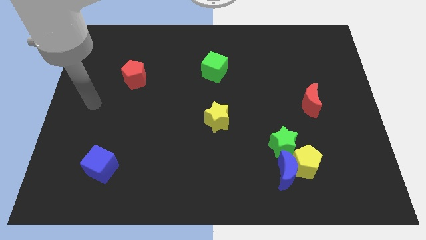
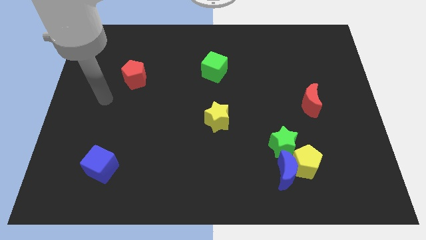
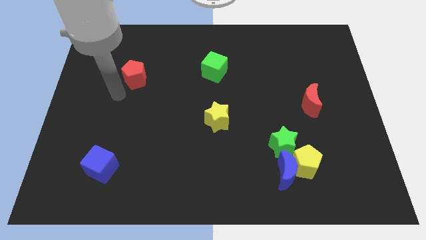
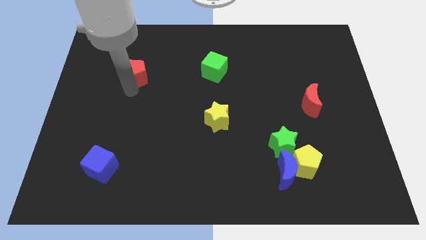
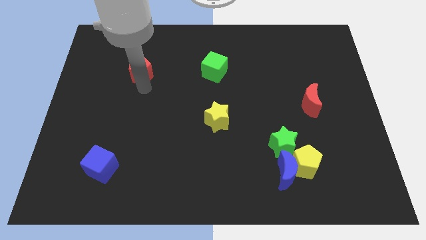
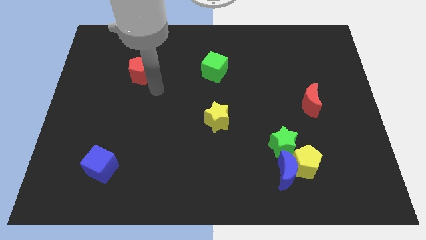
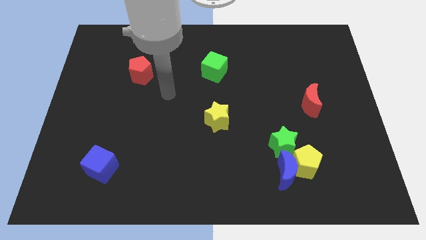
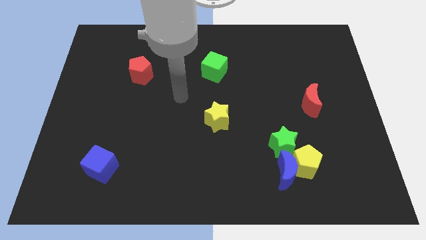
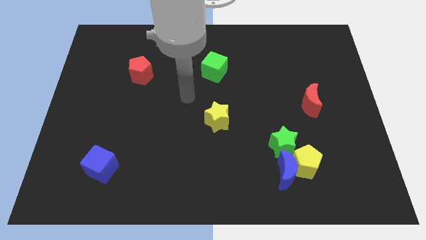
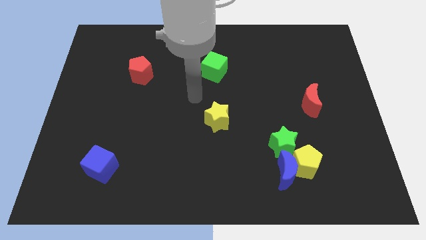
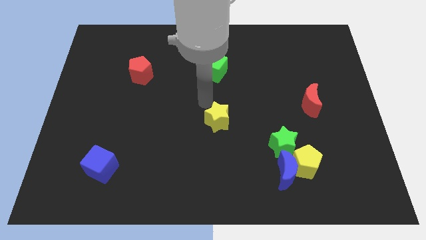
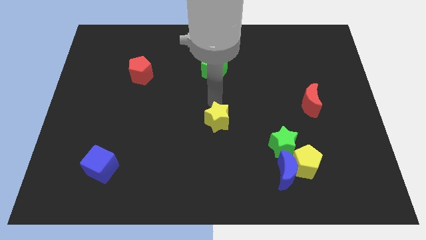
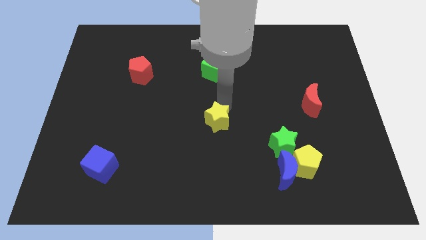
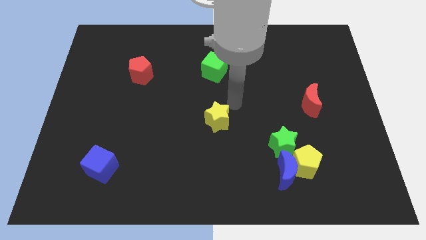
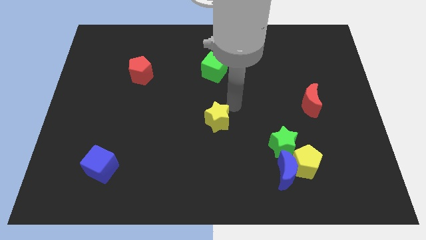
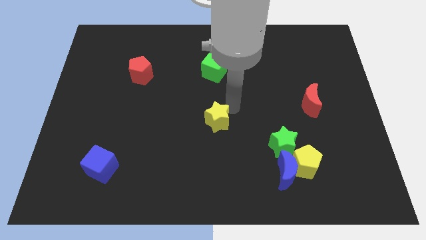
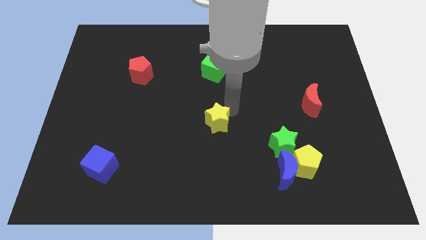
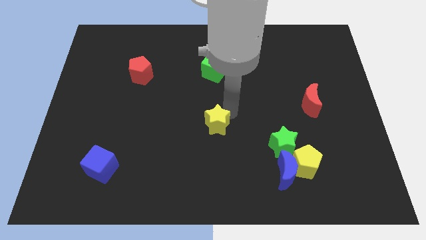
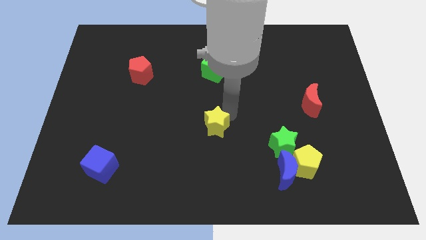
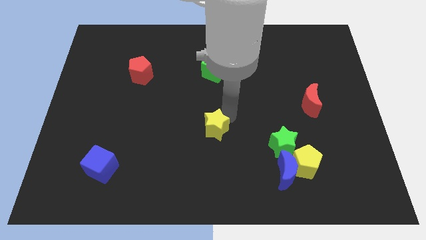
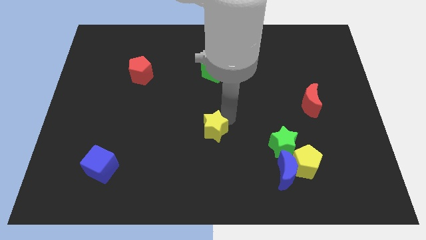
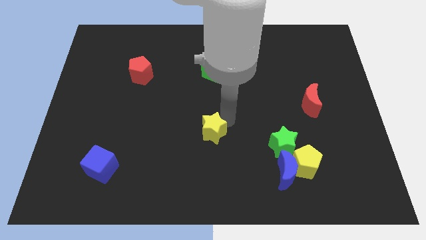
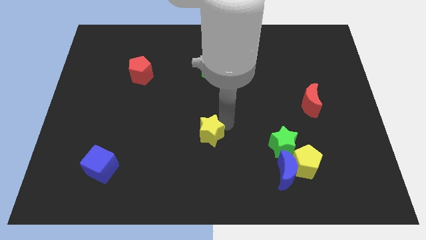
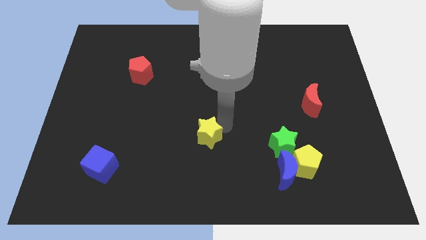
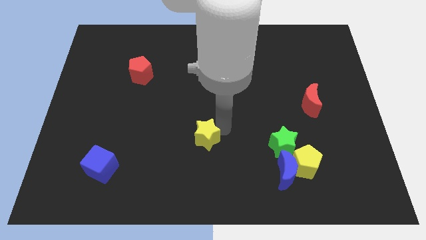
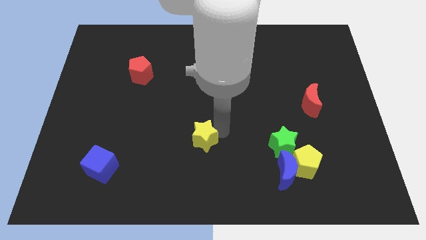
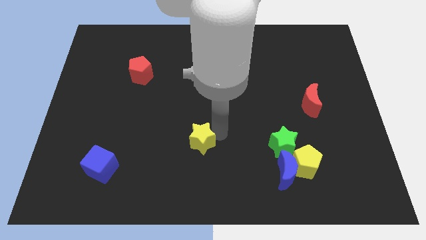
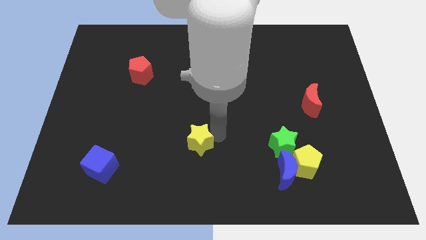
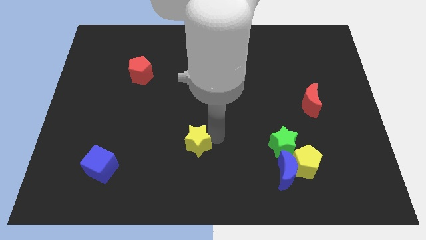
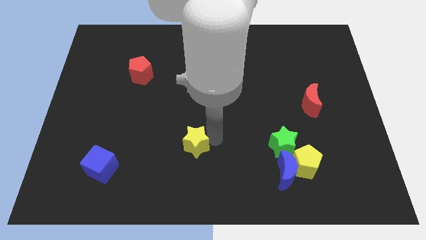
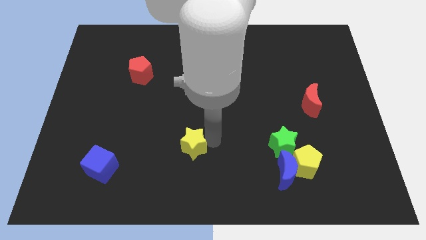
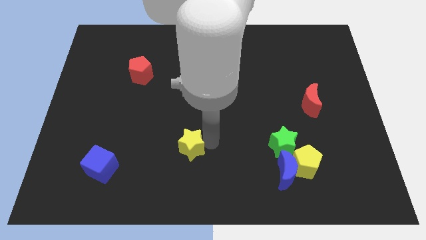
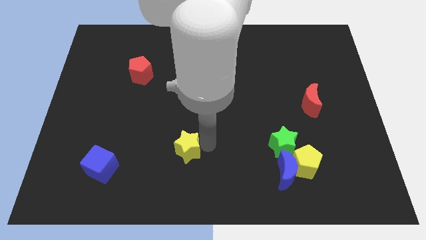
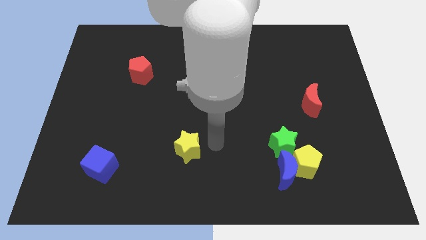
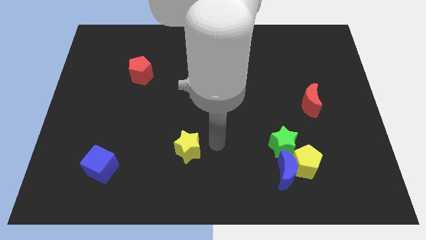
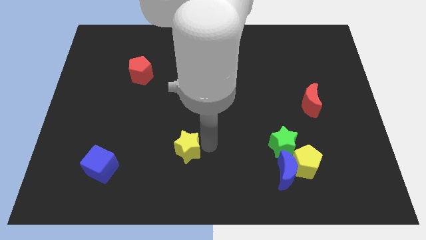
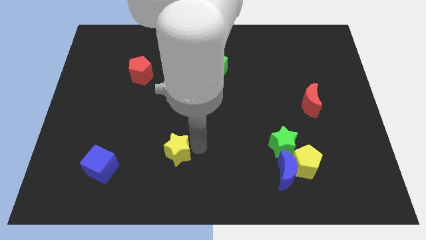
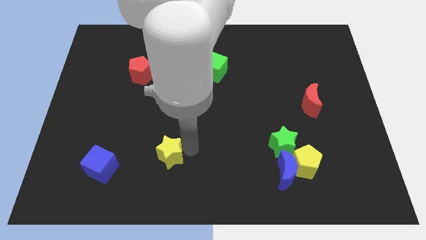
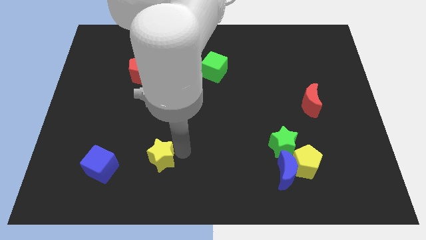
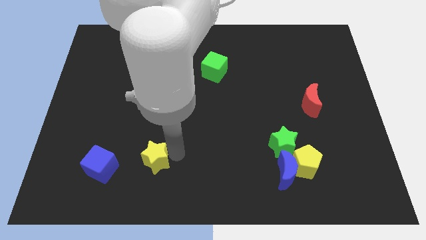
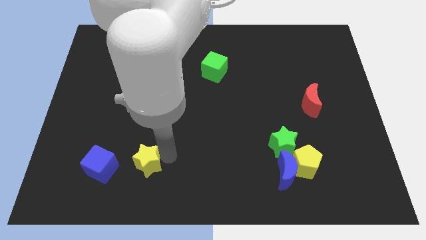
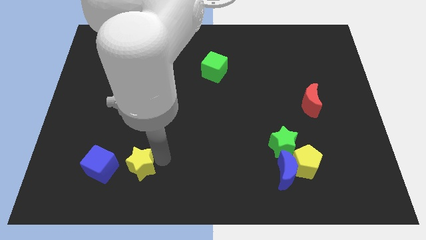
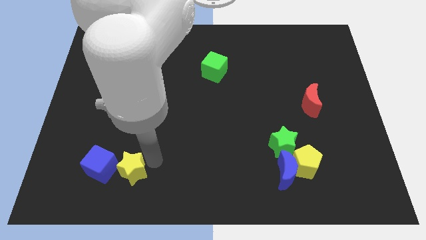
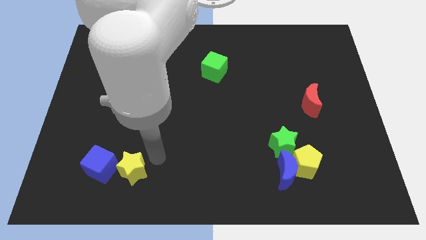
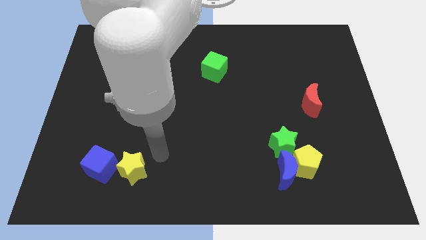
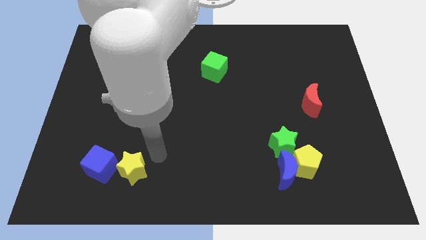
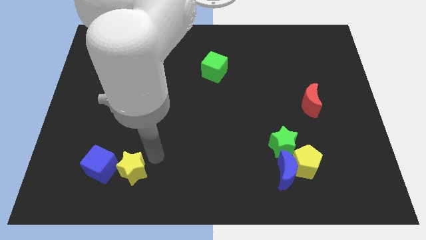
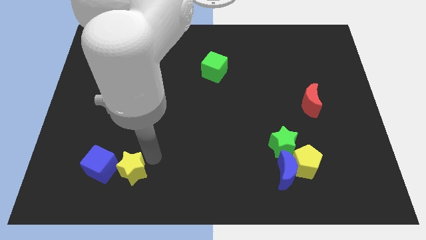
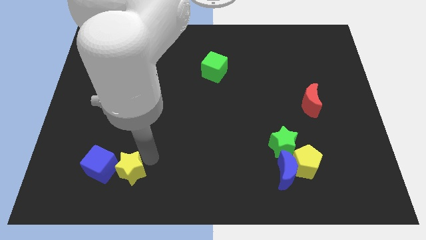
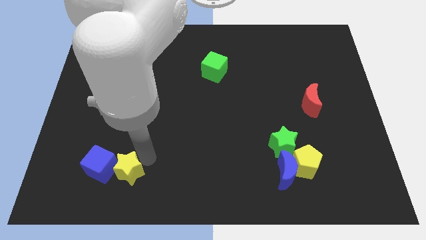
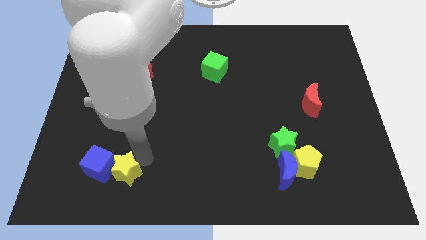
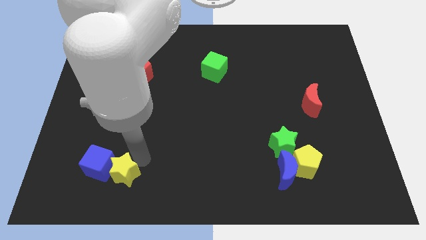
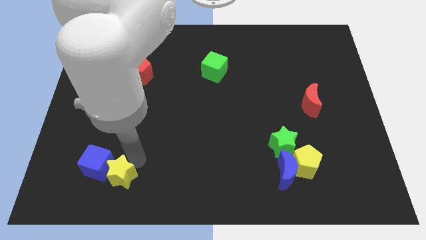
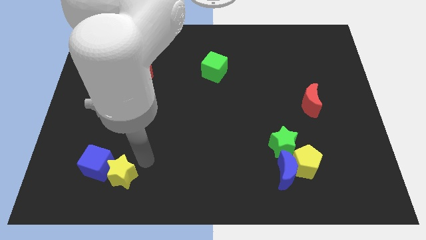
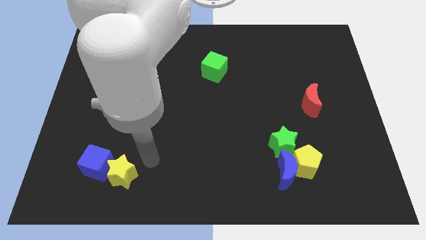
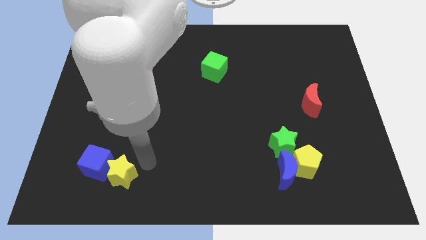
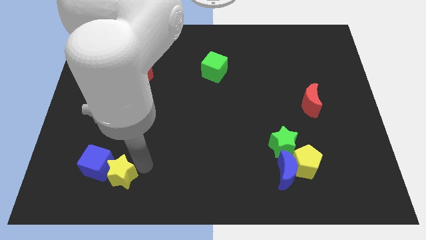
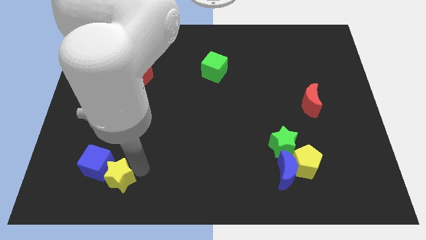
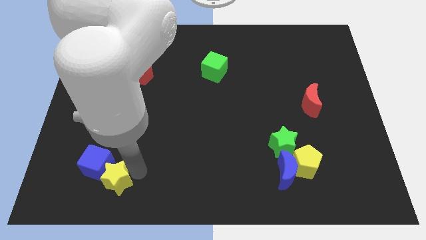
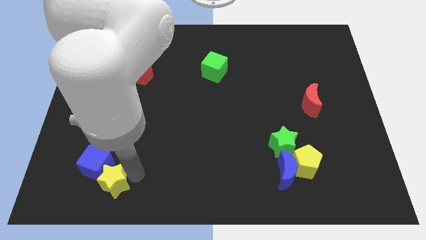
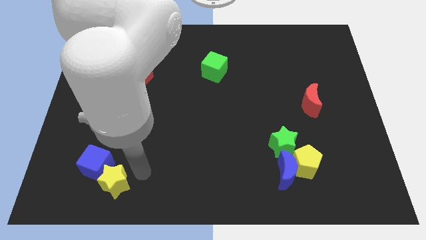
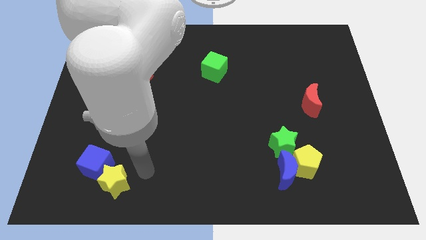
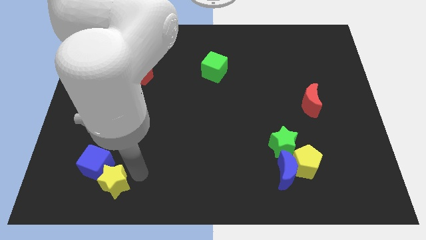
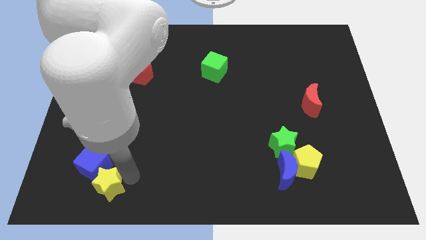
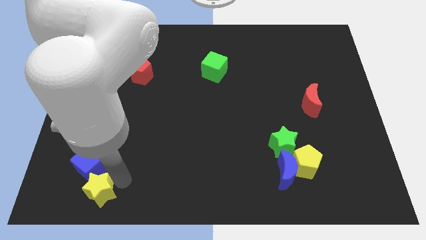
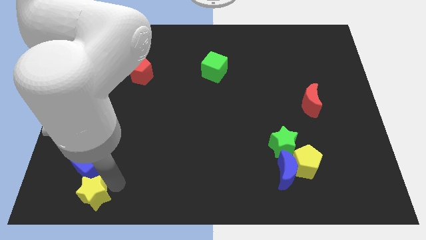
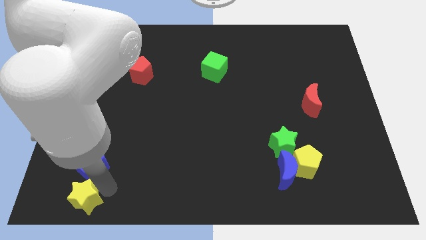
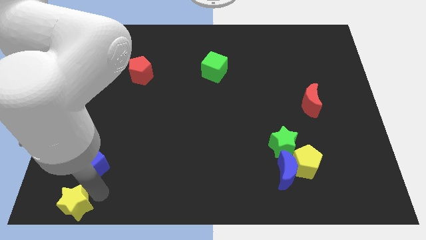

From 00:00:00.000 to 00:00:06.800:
slide the yellow star to the lower left corner
